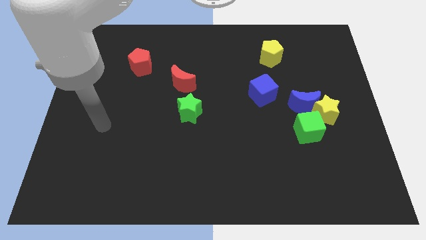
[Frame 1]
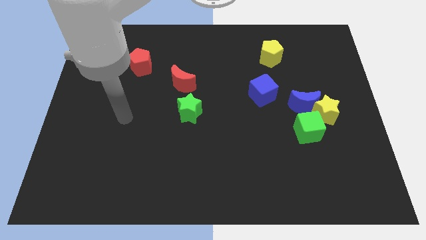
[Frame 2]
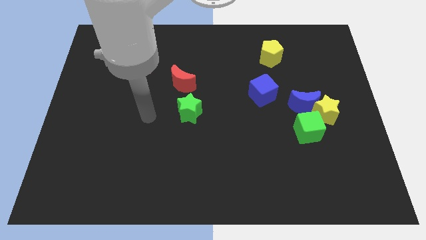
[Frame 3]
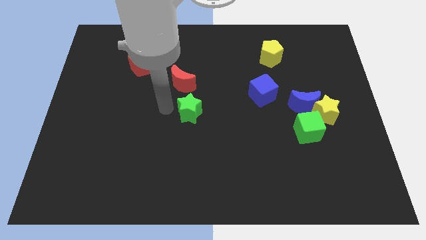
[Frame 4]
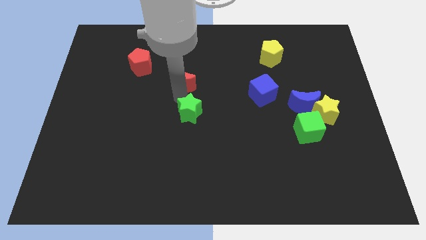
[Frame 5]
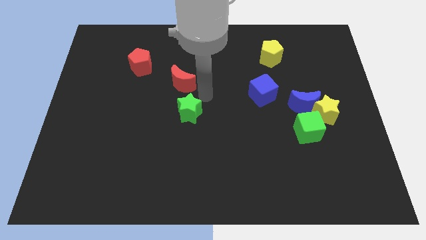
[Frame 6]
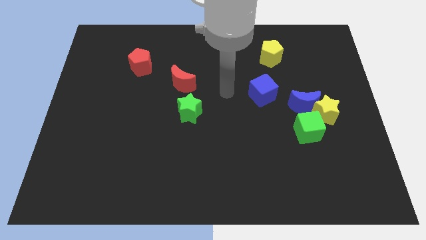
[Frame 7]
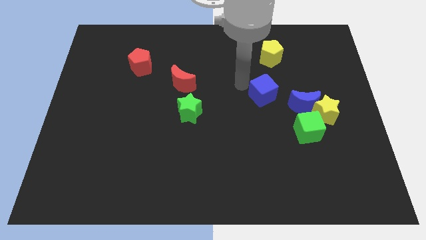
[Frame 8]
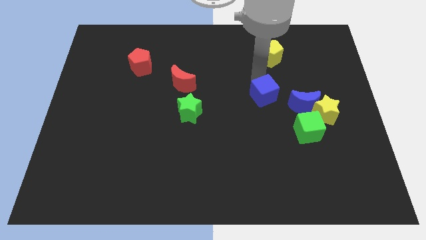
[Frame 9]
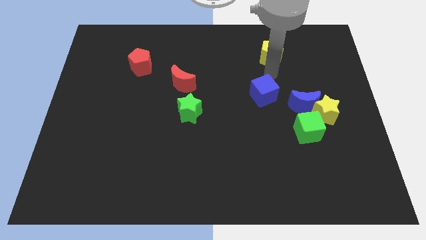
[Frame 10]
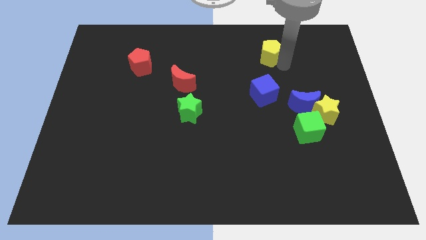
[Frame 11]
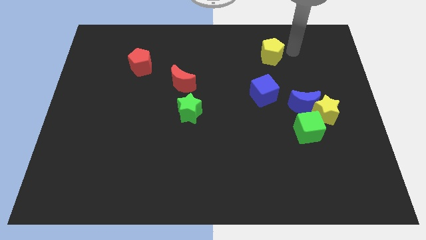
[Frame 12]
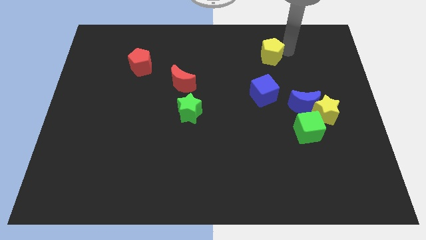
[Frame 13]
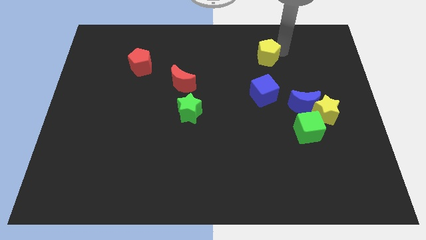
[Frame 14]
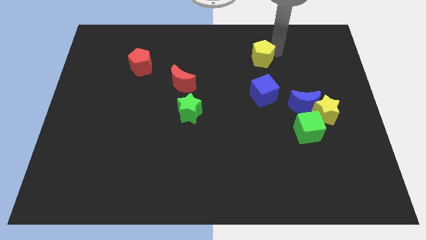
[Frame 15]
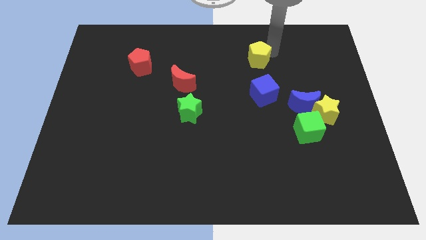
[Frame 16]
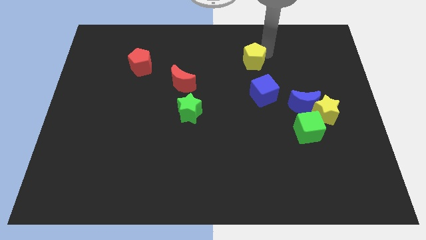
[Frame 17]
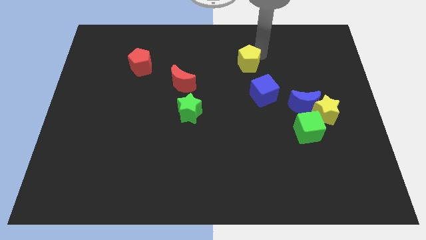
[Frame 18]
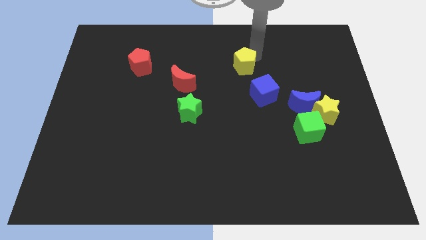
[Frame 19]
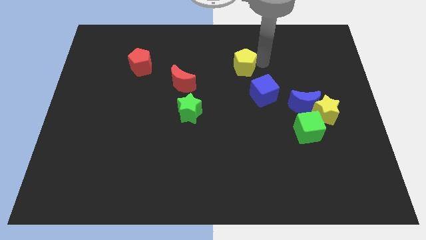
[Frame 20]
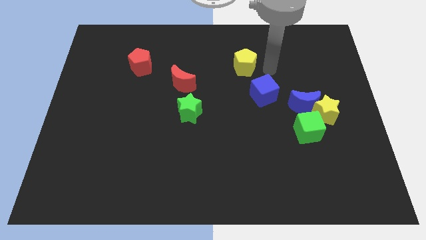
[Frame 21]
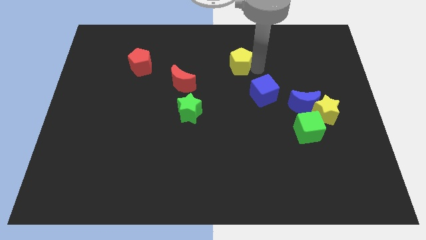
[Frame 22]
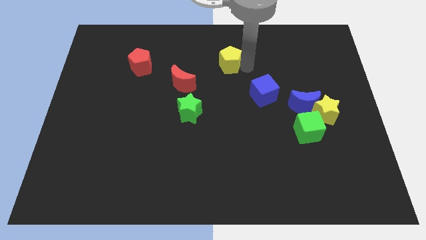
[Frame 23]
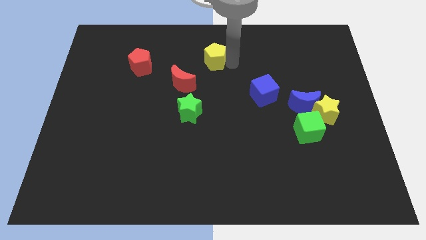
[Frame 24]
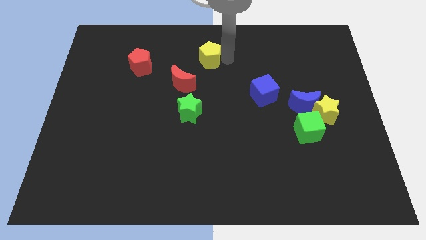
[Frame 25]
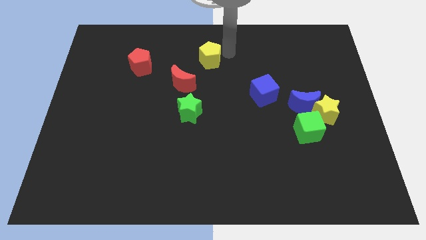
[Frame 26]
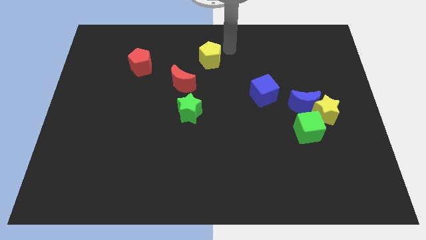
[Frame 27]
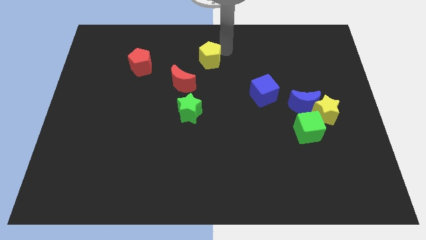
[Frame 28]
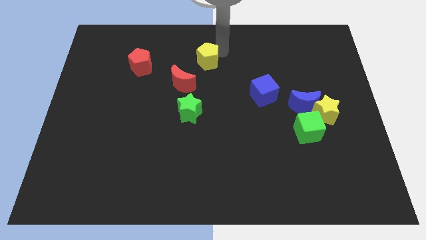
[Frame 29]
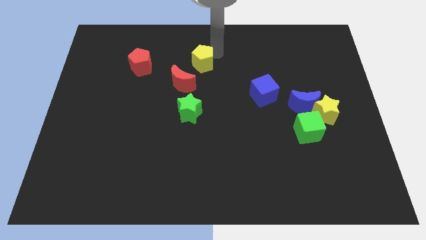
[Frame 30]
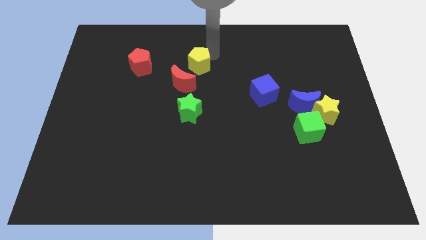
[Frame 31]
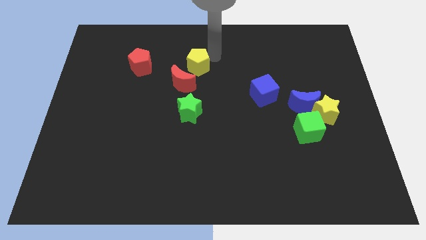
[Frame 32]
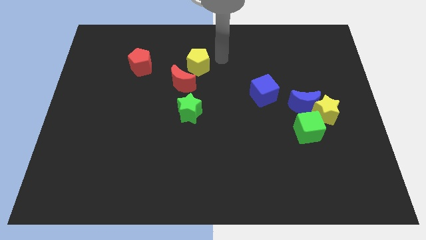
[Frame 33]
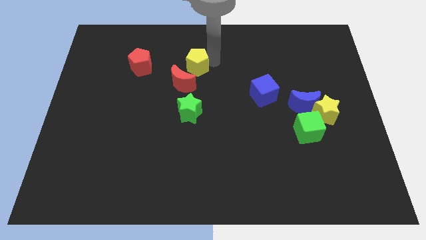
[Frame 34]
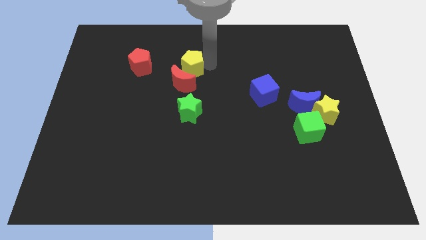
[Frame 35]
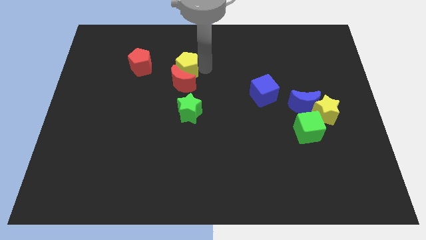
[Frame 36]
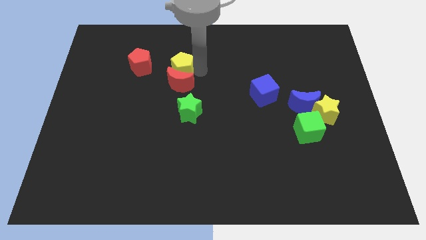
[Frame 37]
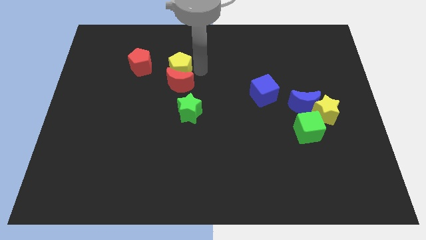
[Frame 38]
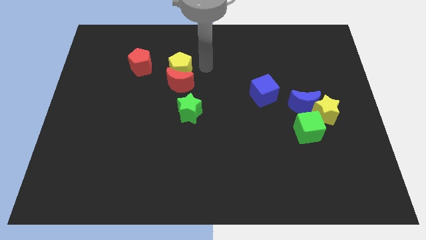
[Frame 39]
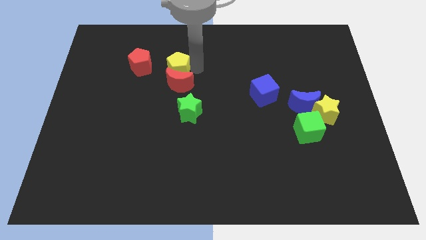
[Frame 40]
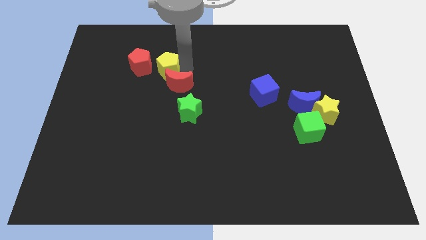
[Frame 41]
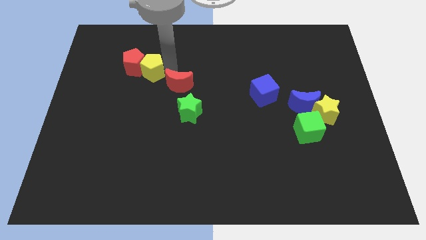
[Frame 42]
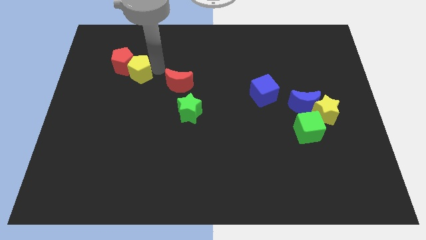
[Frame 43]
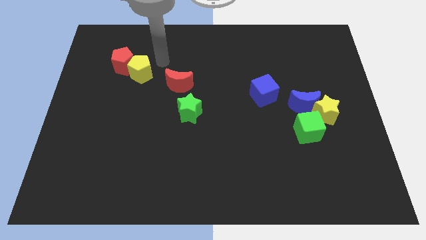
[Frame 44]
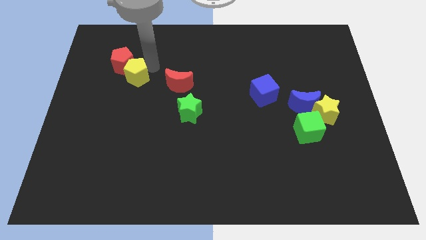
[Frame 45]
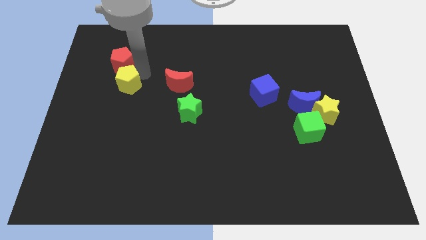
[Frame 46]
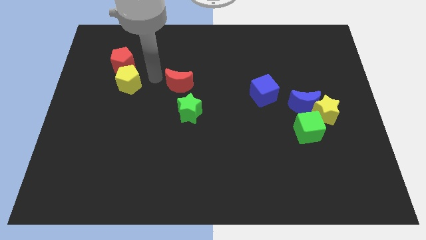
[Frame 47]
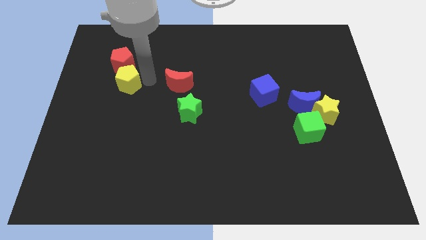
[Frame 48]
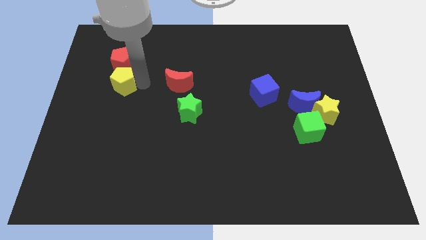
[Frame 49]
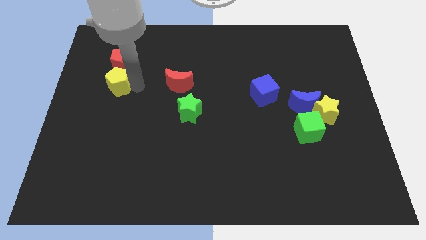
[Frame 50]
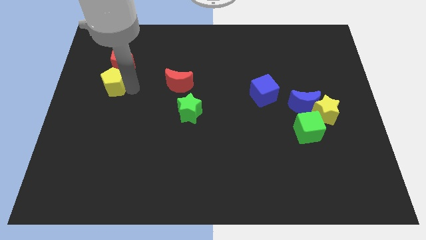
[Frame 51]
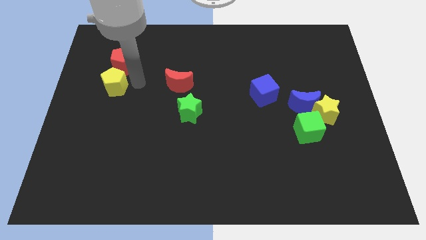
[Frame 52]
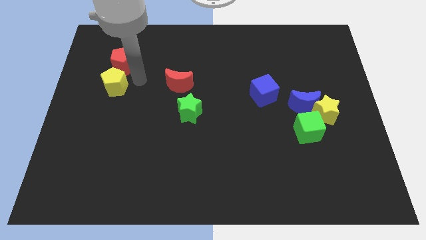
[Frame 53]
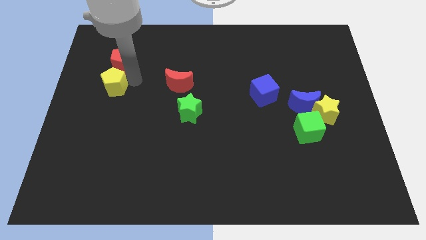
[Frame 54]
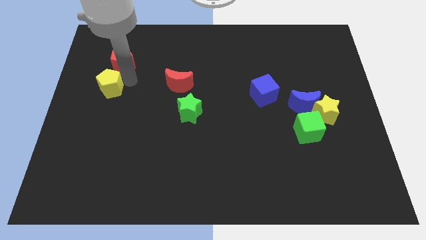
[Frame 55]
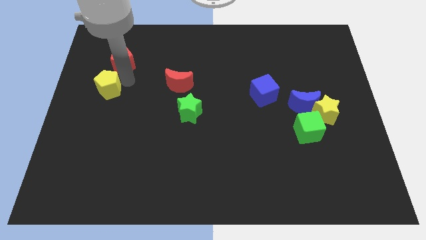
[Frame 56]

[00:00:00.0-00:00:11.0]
push the yellow pentagon to the center left

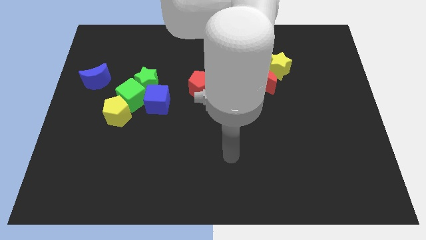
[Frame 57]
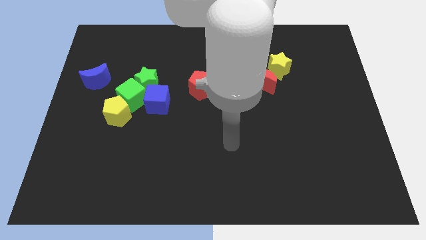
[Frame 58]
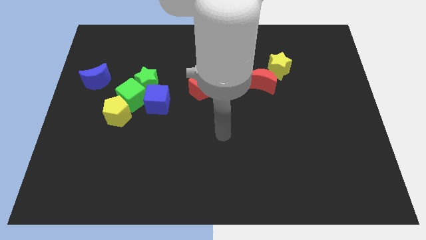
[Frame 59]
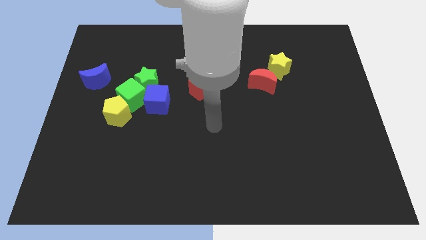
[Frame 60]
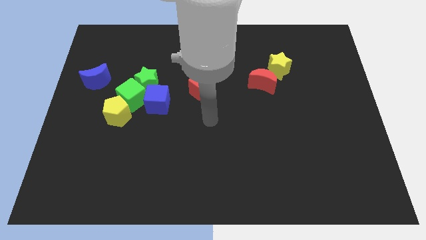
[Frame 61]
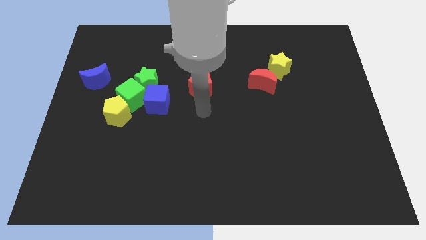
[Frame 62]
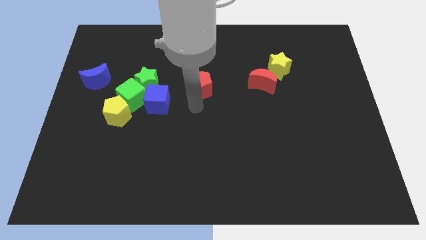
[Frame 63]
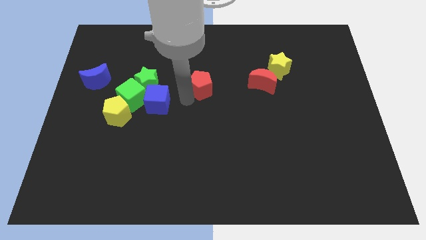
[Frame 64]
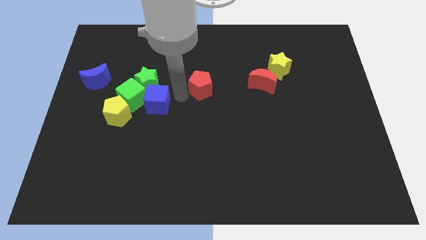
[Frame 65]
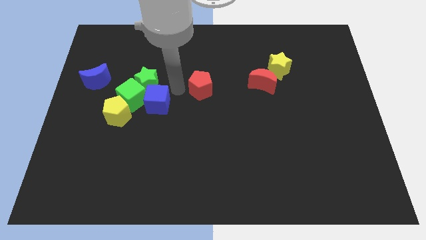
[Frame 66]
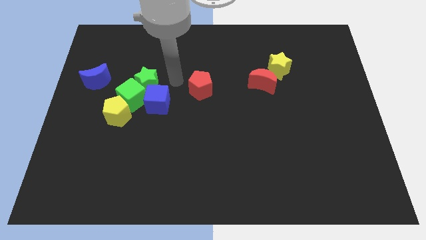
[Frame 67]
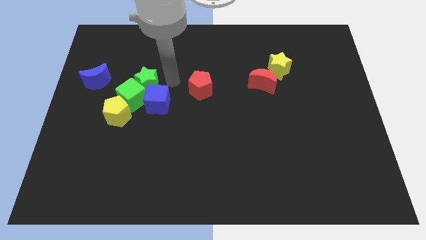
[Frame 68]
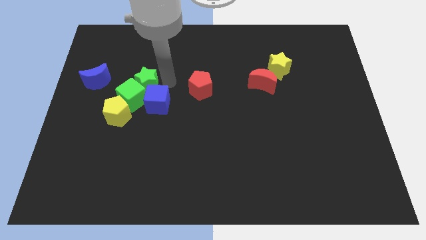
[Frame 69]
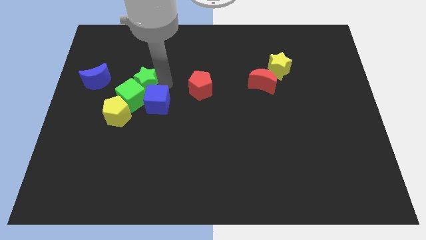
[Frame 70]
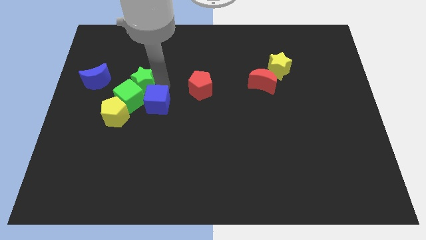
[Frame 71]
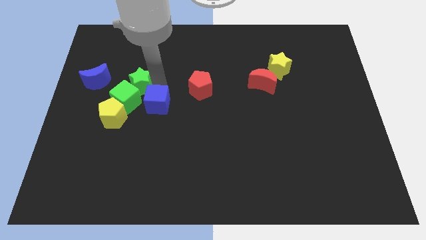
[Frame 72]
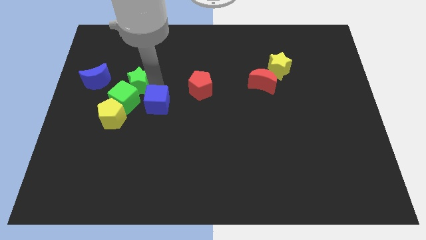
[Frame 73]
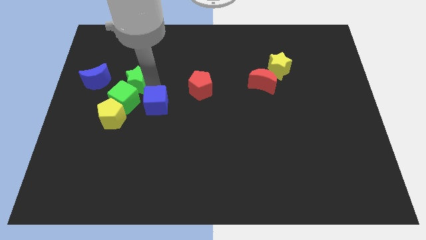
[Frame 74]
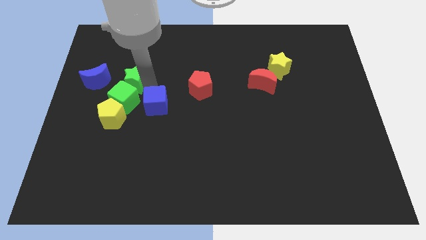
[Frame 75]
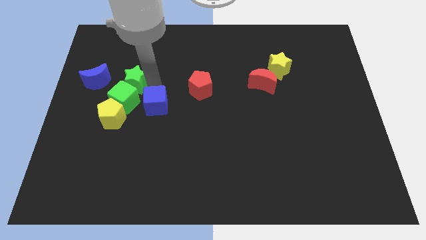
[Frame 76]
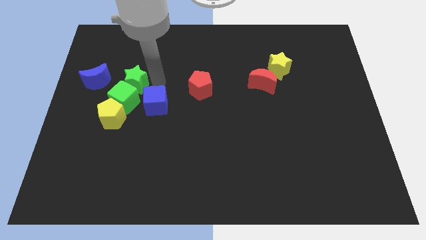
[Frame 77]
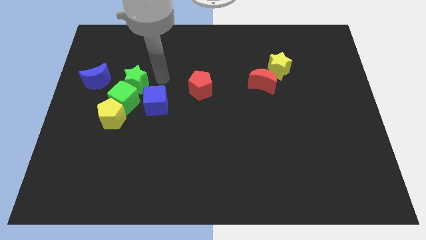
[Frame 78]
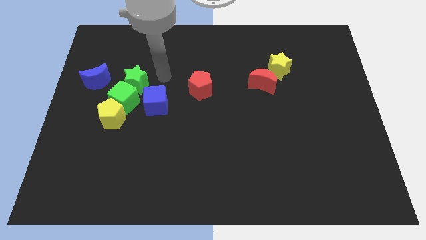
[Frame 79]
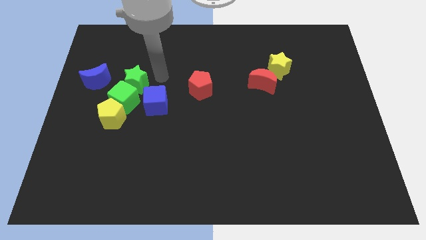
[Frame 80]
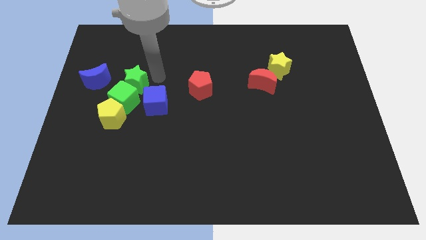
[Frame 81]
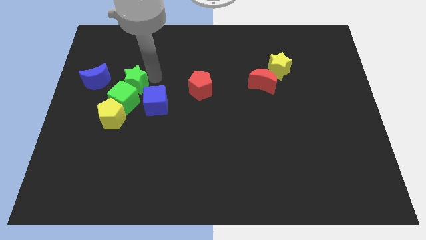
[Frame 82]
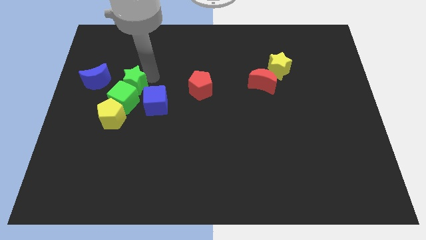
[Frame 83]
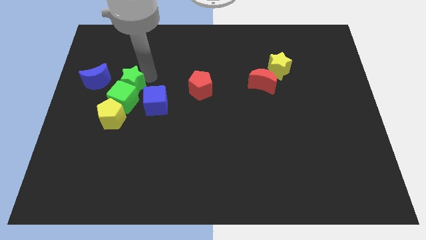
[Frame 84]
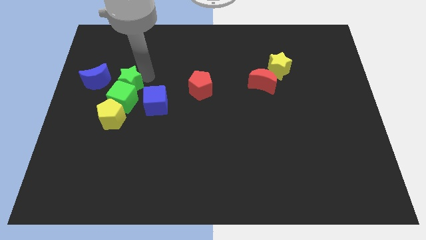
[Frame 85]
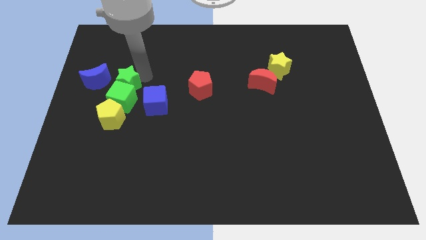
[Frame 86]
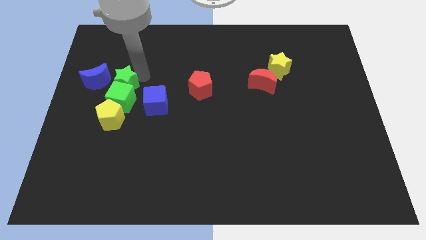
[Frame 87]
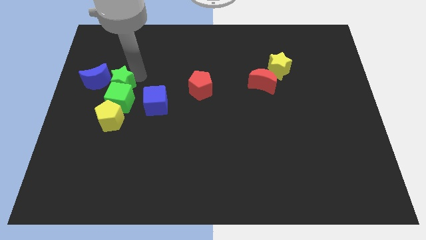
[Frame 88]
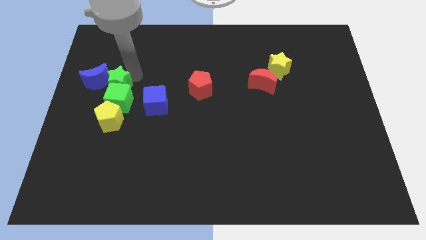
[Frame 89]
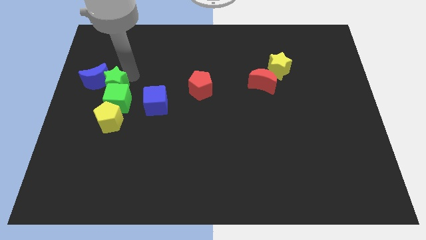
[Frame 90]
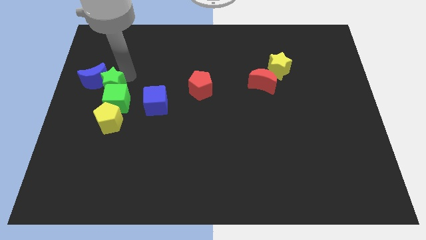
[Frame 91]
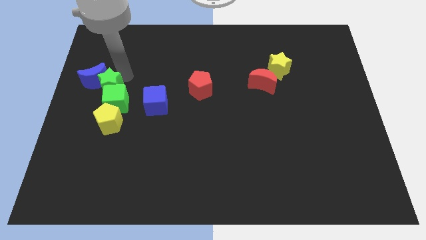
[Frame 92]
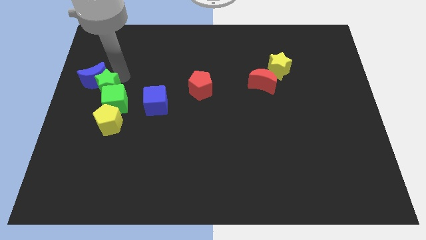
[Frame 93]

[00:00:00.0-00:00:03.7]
move the green star to the center left
